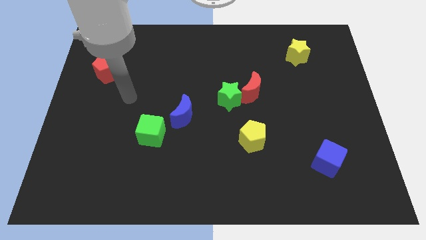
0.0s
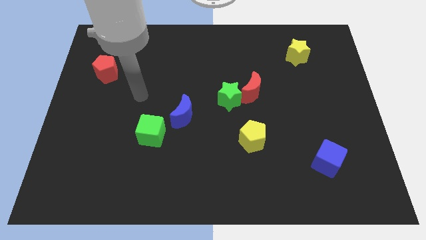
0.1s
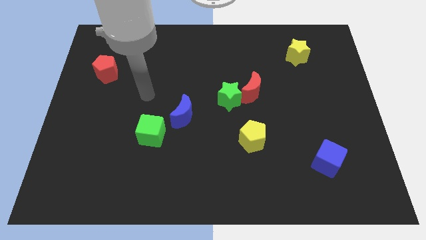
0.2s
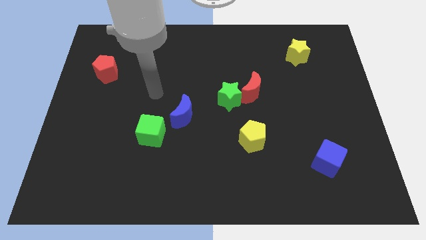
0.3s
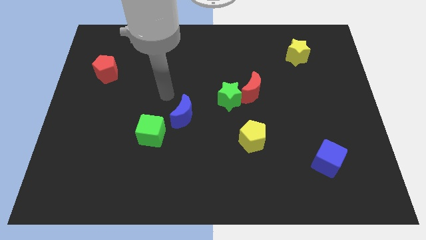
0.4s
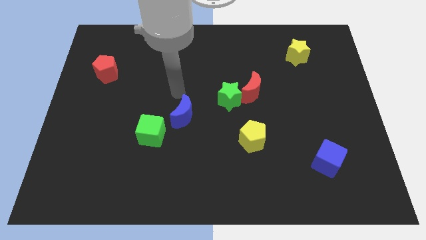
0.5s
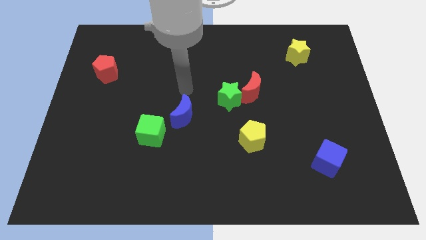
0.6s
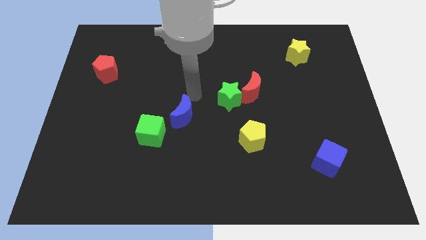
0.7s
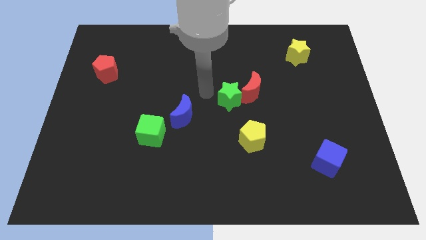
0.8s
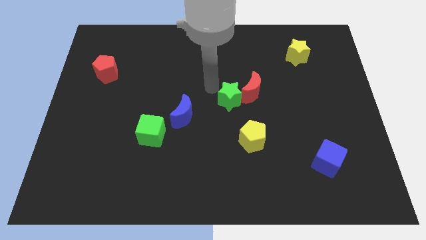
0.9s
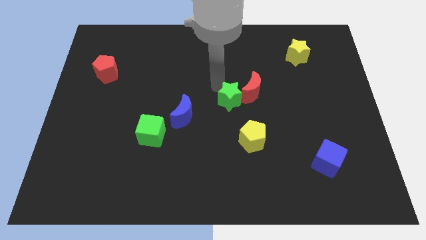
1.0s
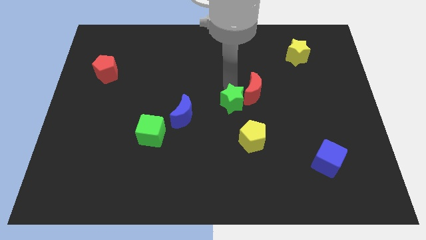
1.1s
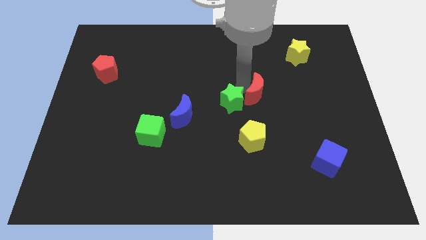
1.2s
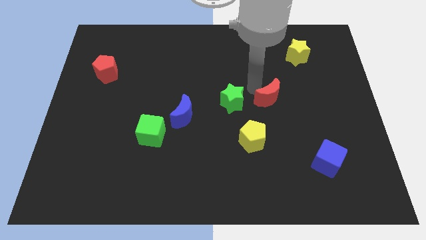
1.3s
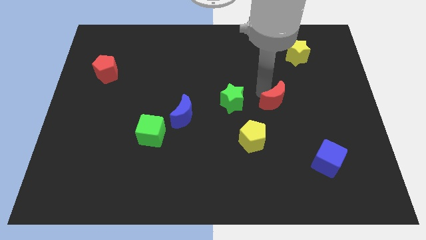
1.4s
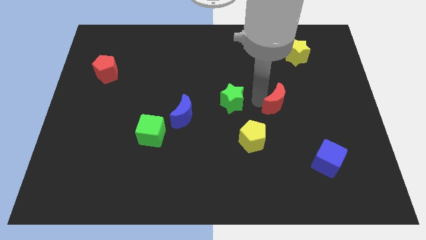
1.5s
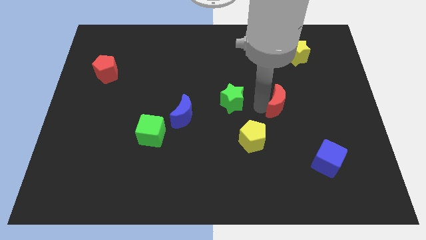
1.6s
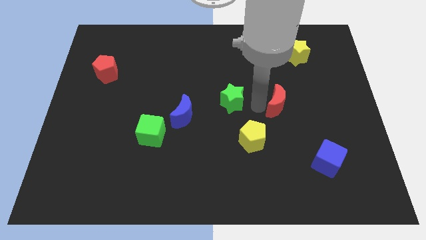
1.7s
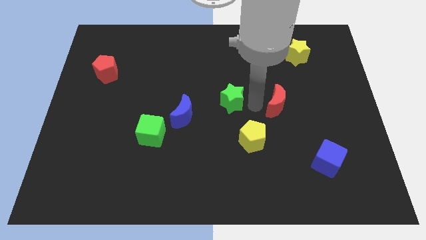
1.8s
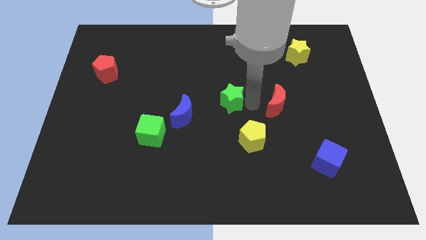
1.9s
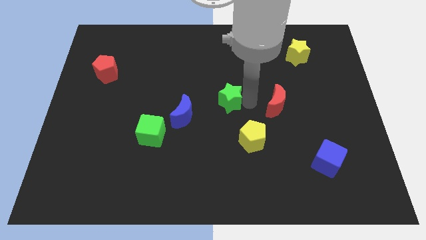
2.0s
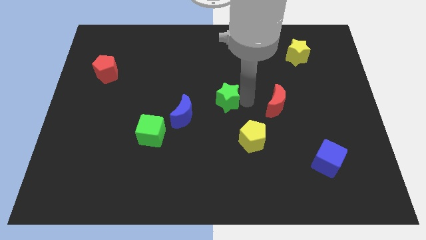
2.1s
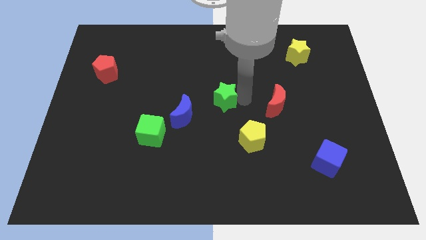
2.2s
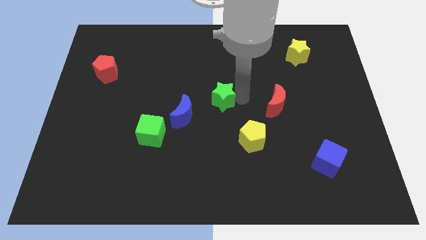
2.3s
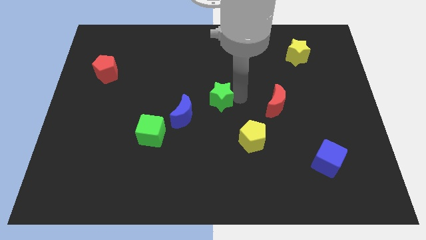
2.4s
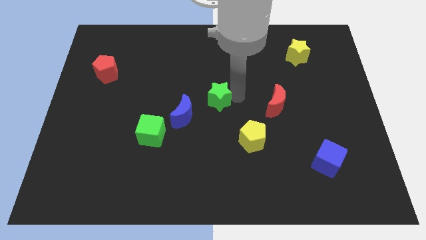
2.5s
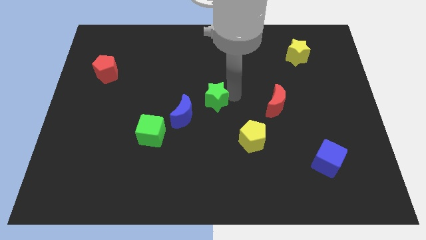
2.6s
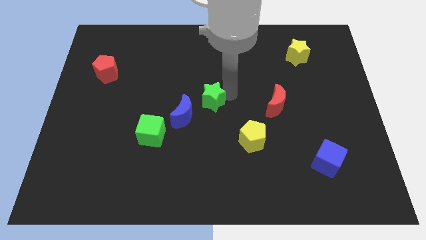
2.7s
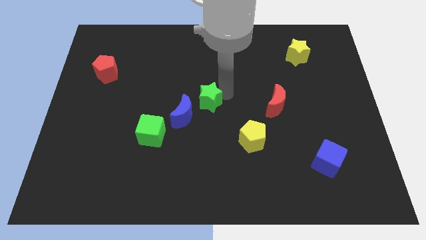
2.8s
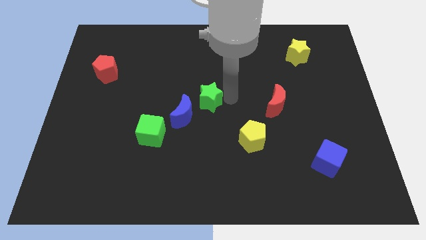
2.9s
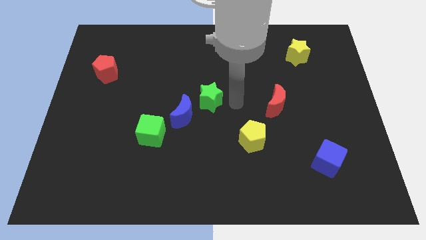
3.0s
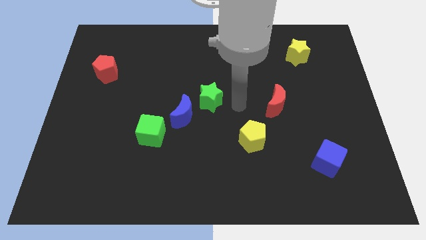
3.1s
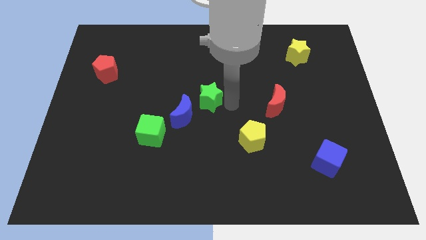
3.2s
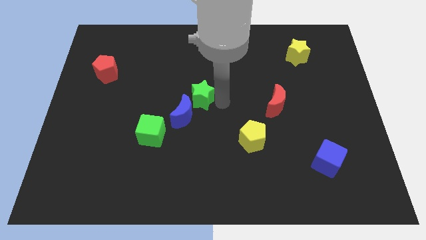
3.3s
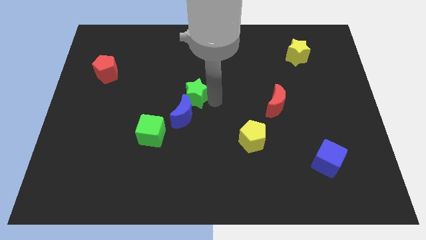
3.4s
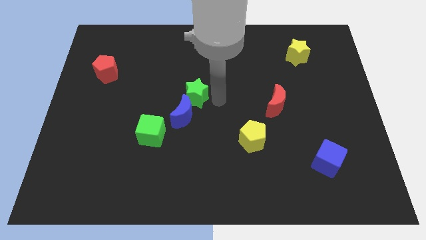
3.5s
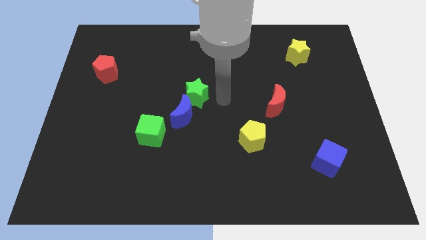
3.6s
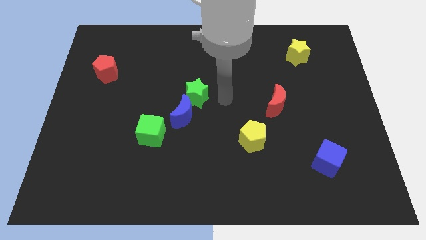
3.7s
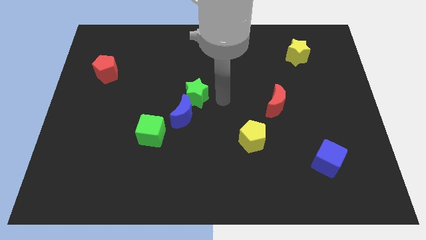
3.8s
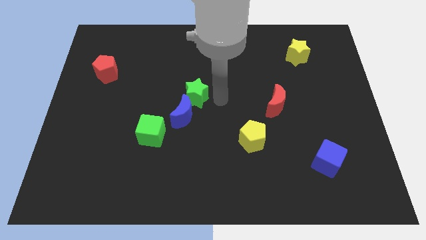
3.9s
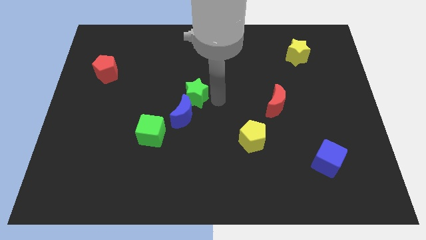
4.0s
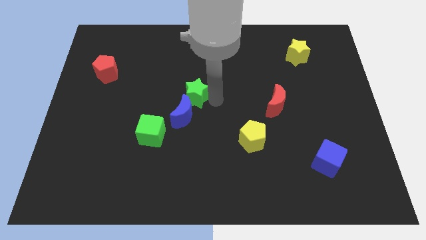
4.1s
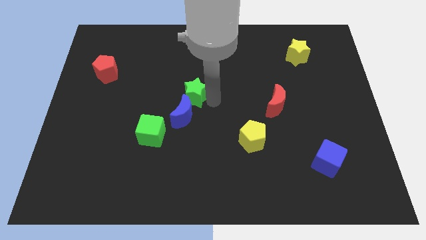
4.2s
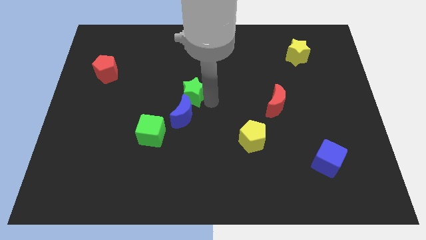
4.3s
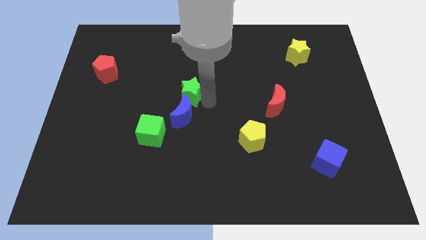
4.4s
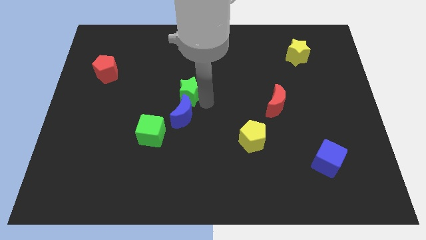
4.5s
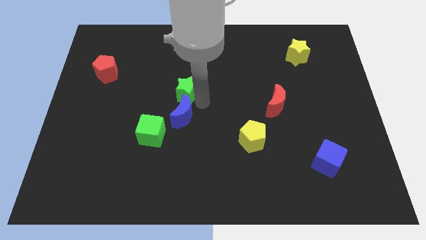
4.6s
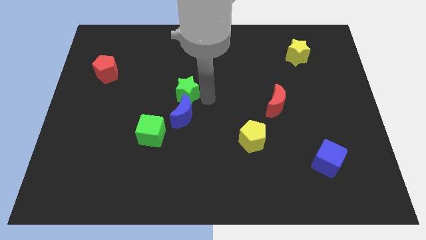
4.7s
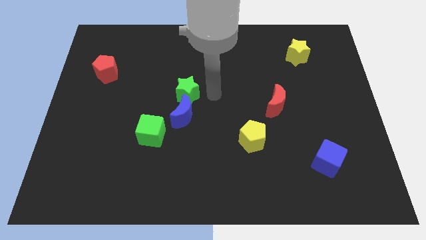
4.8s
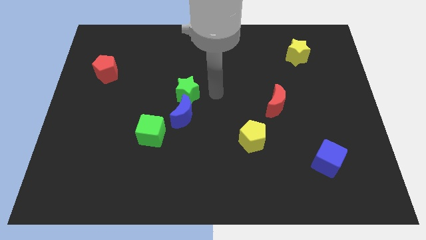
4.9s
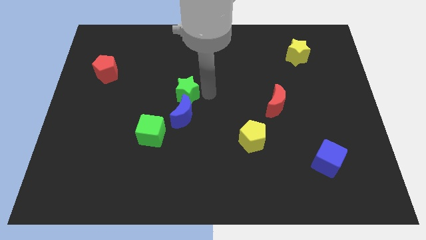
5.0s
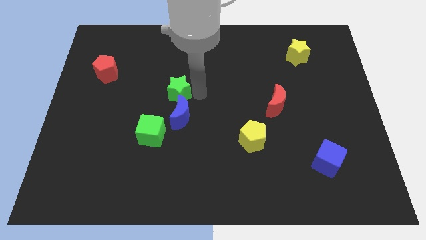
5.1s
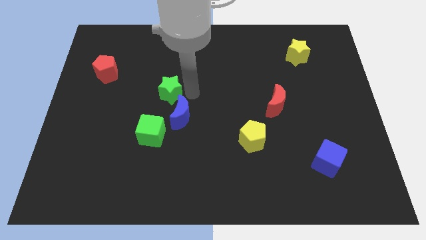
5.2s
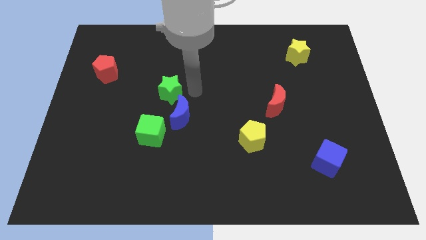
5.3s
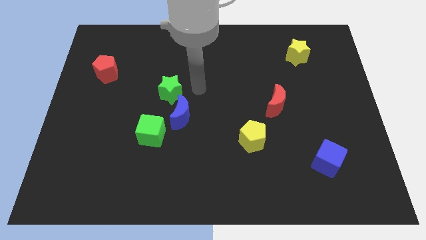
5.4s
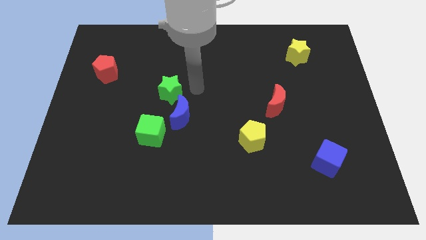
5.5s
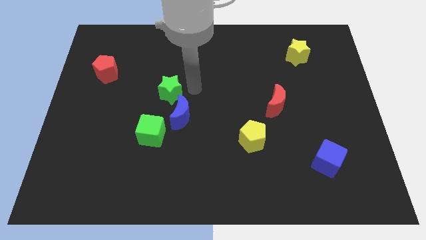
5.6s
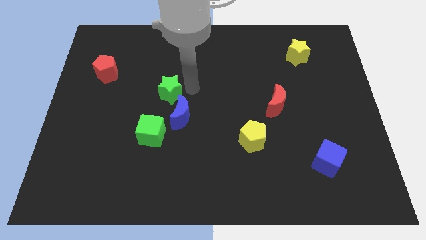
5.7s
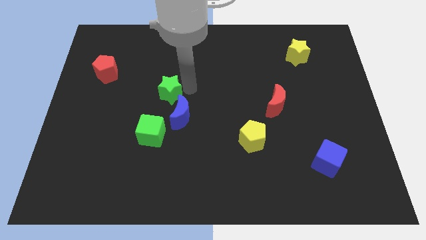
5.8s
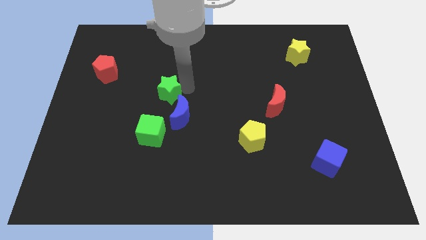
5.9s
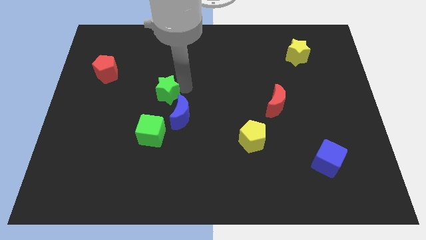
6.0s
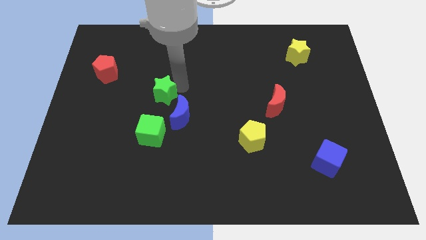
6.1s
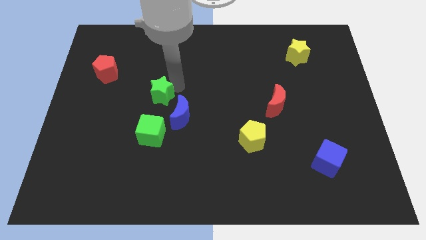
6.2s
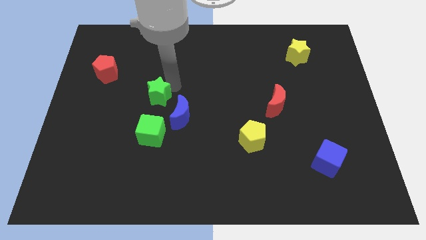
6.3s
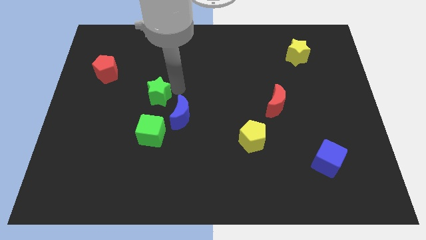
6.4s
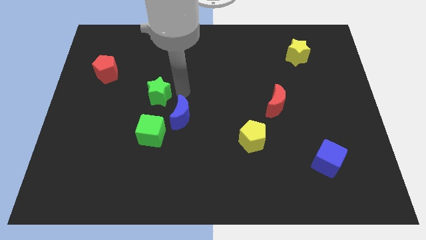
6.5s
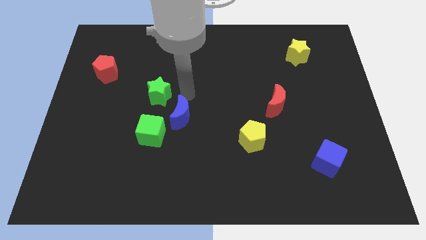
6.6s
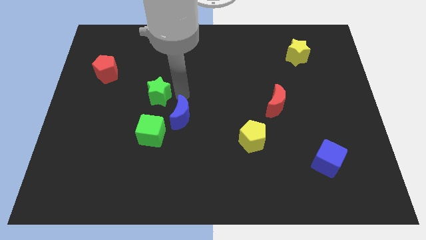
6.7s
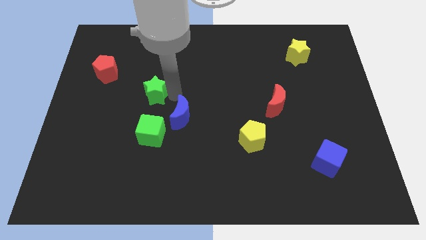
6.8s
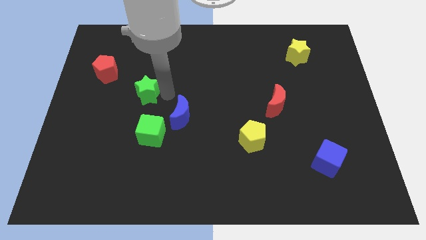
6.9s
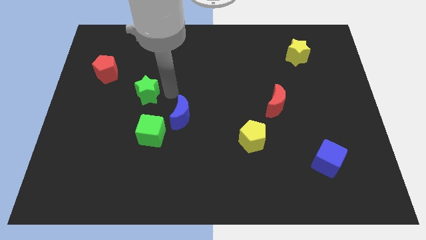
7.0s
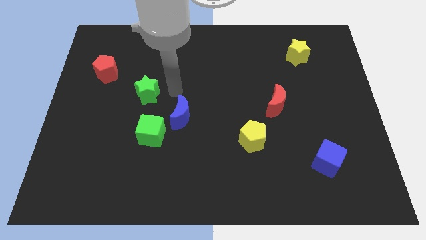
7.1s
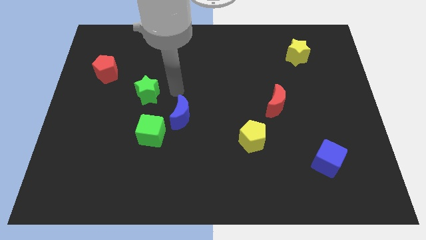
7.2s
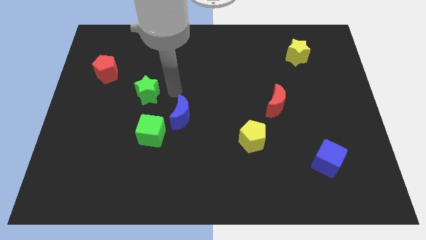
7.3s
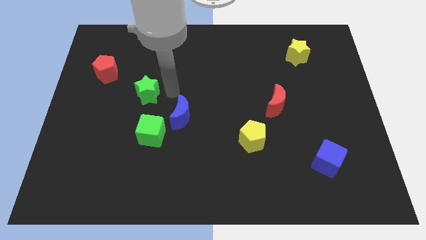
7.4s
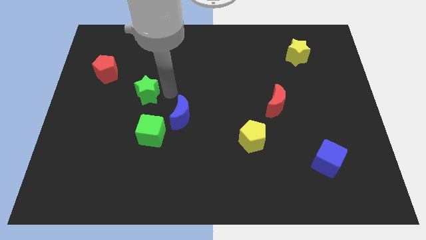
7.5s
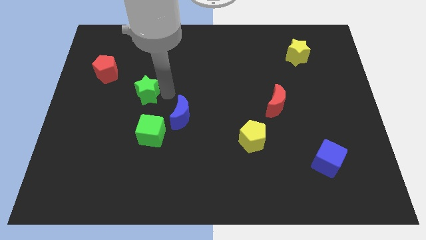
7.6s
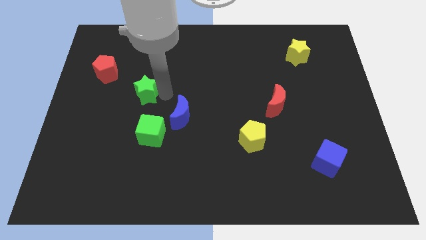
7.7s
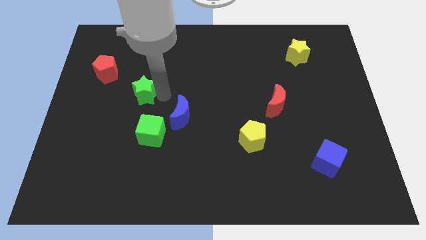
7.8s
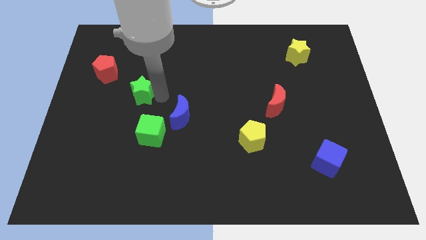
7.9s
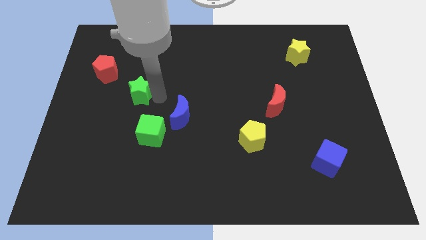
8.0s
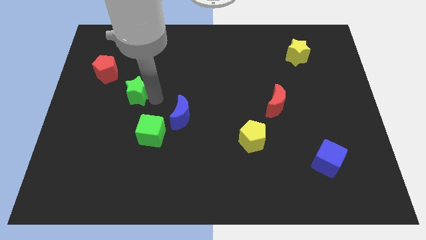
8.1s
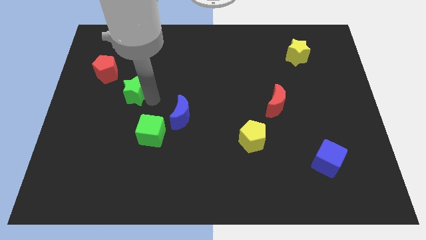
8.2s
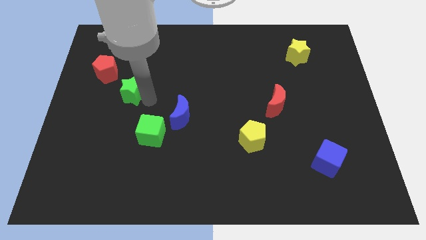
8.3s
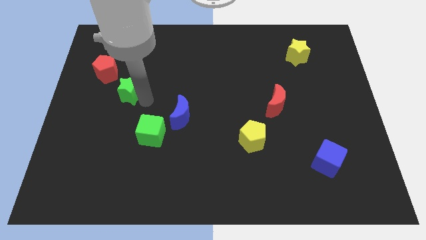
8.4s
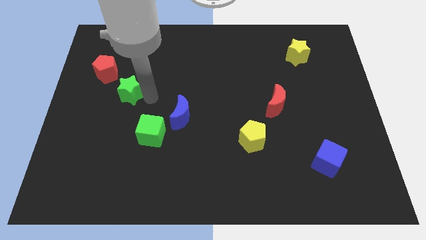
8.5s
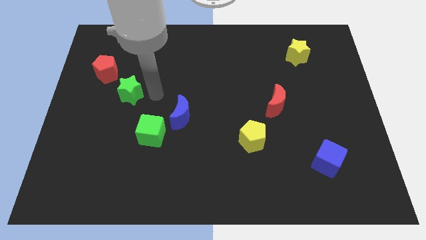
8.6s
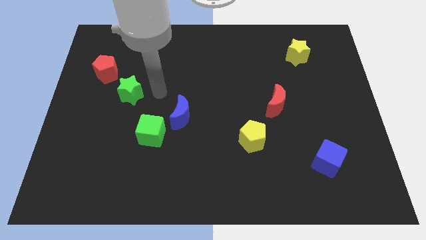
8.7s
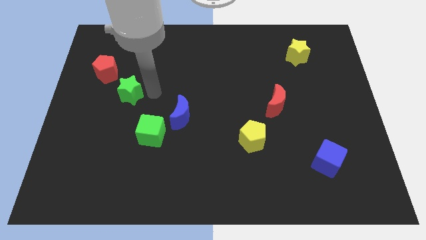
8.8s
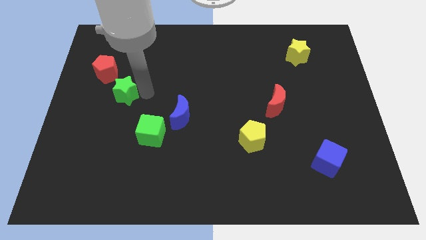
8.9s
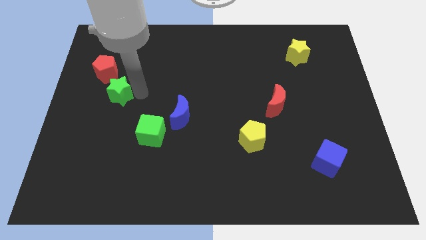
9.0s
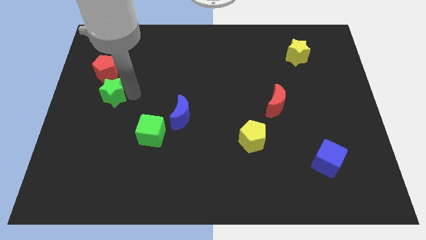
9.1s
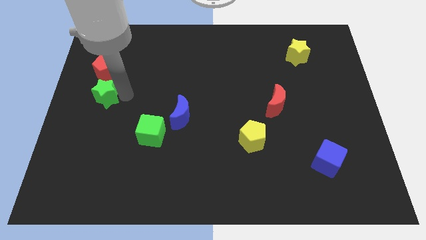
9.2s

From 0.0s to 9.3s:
put the green star to the left side of the board
